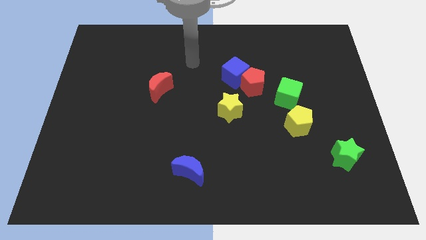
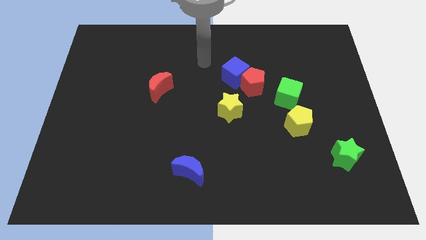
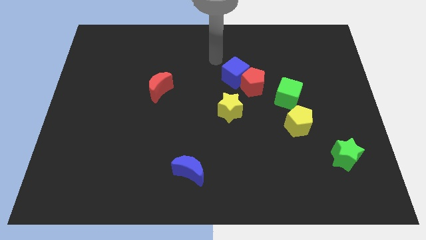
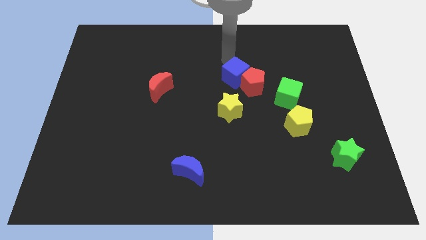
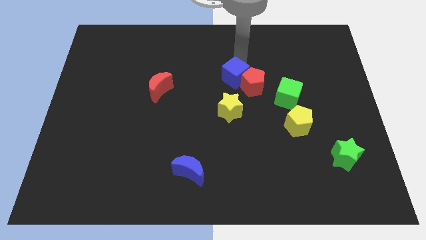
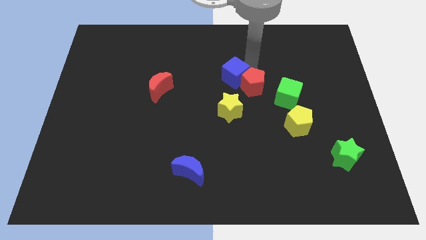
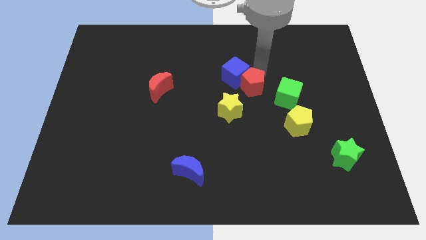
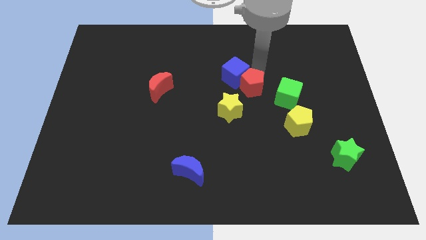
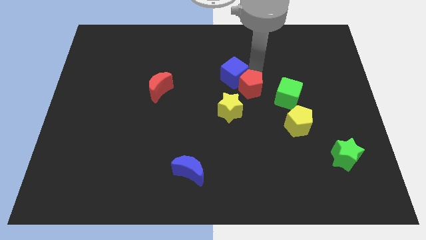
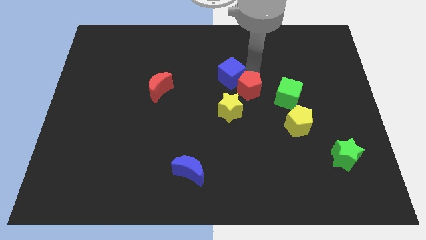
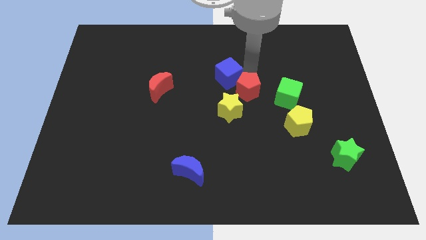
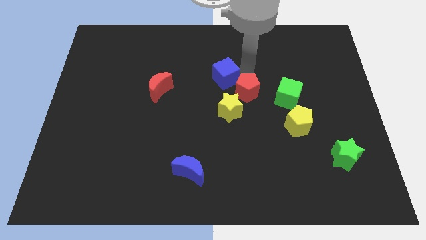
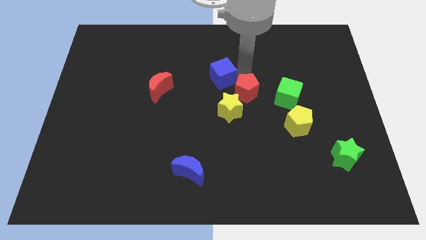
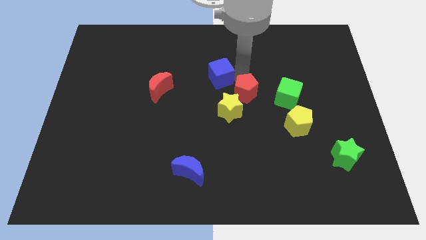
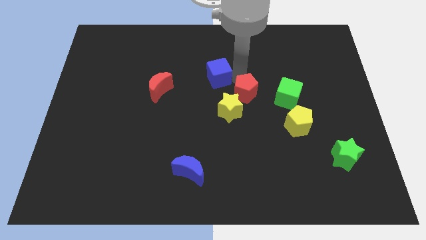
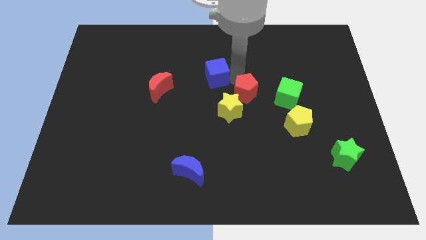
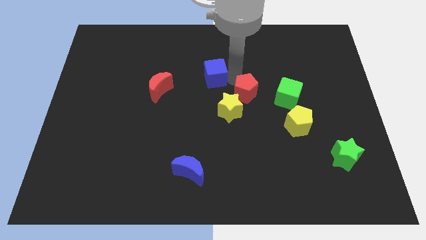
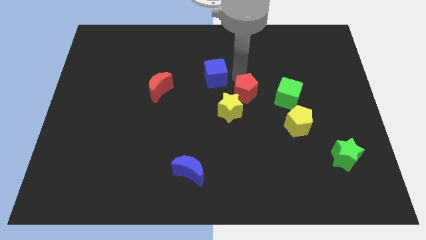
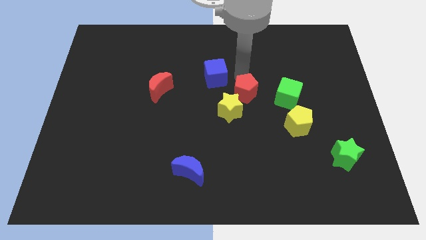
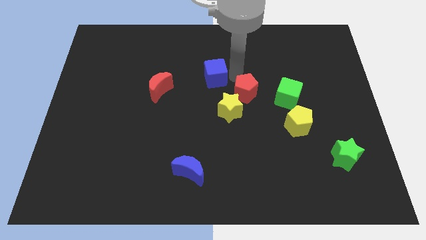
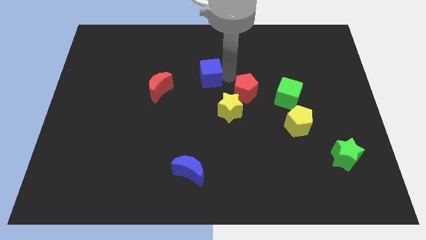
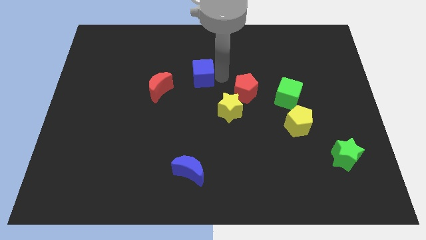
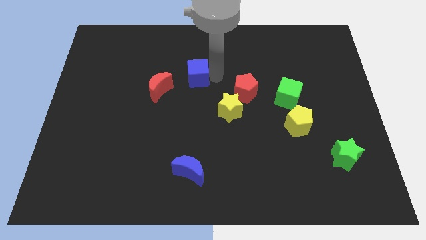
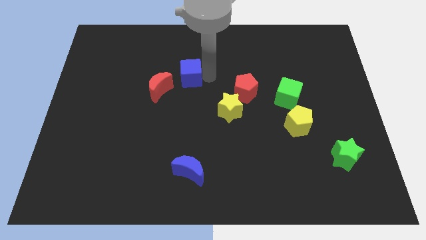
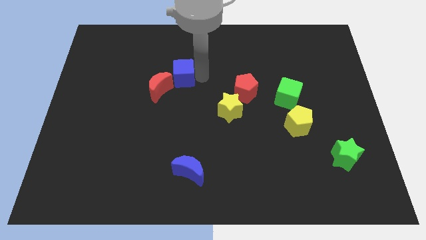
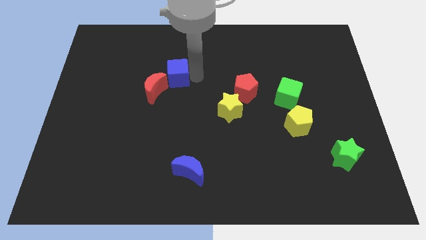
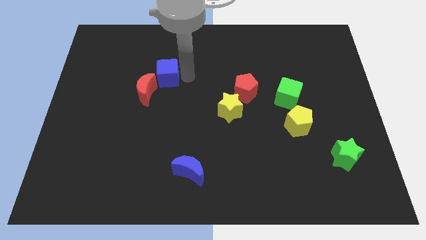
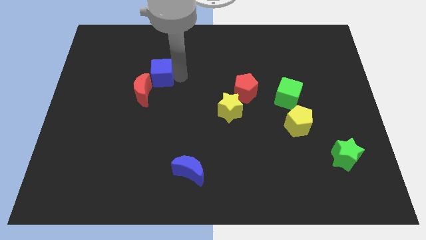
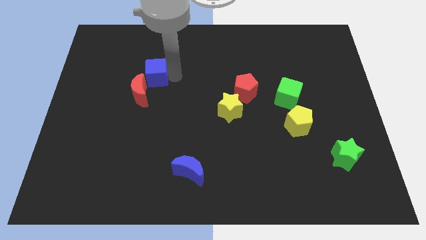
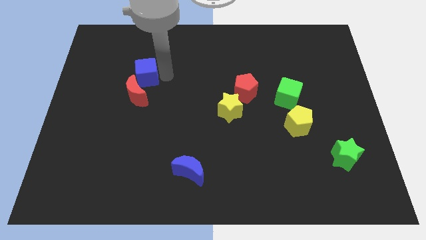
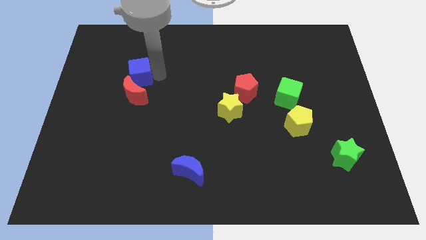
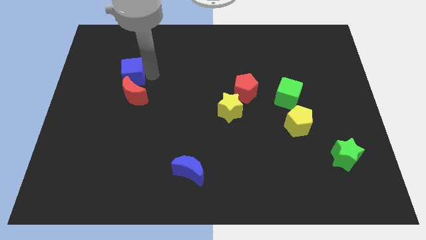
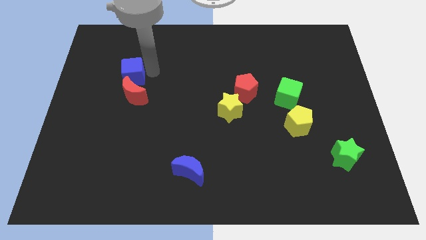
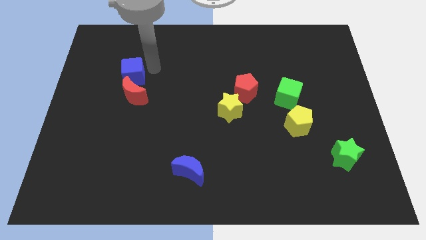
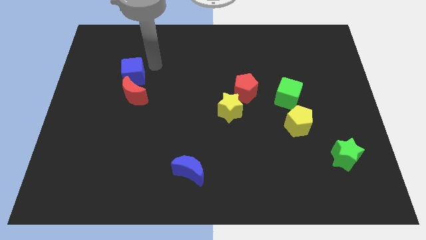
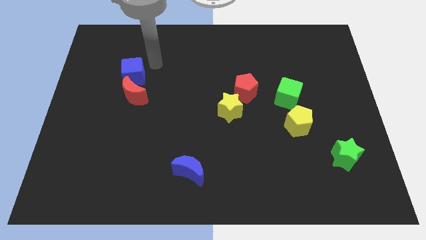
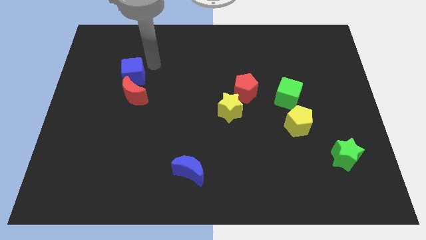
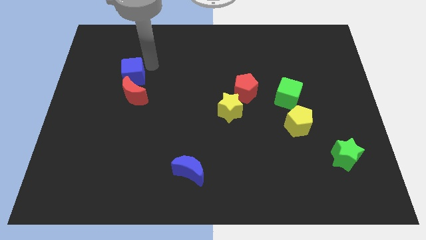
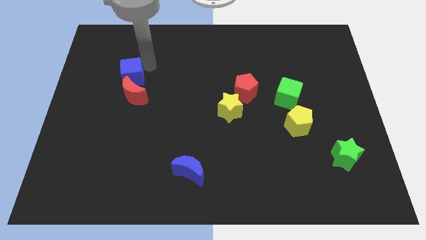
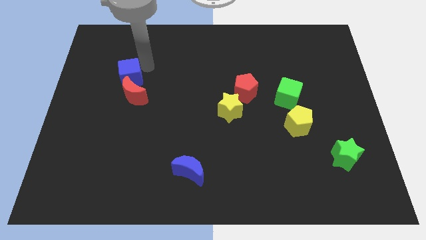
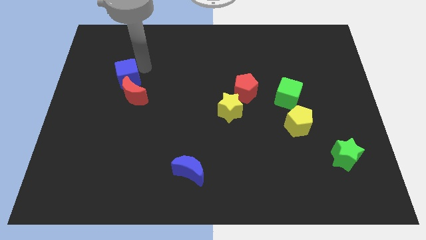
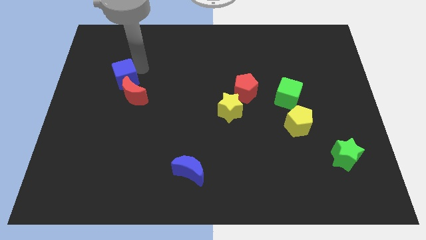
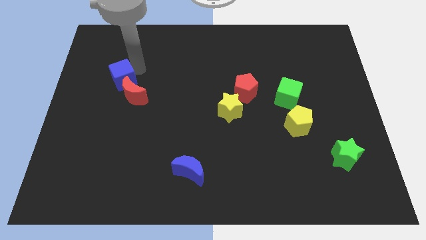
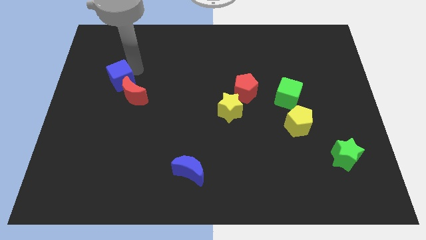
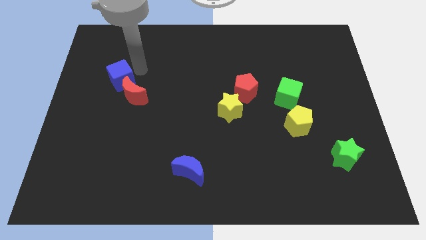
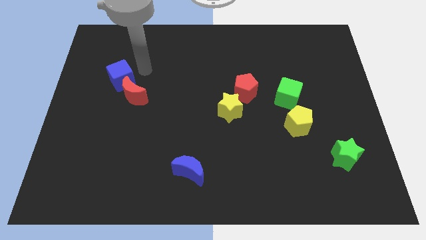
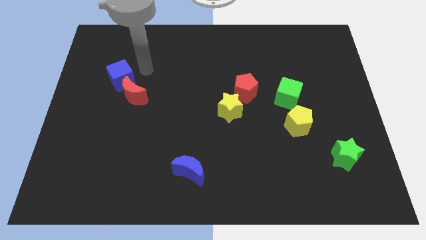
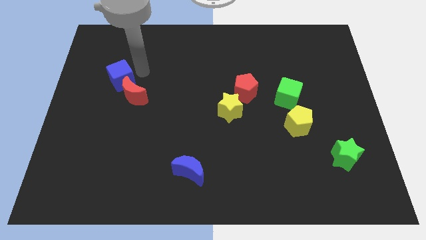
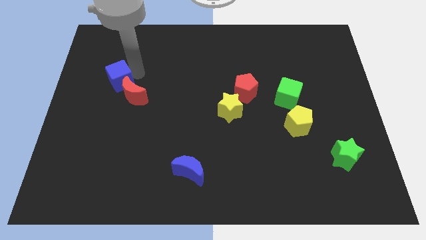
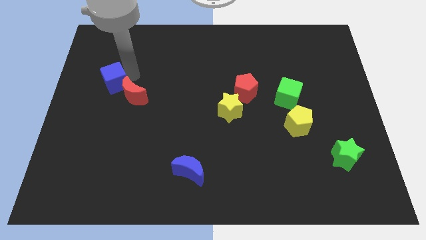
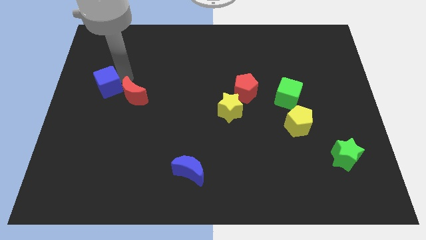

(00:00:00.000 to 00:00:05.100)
slide the blue cube to the left side

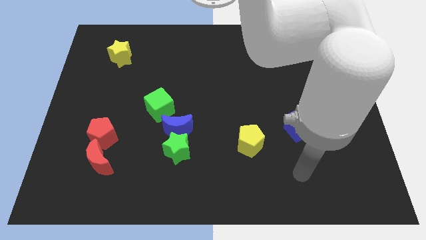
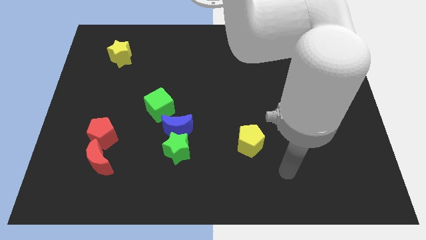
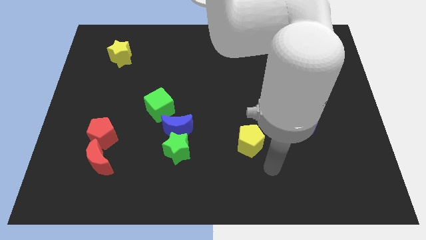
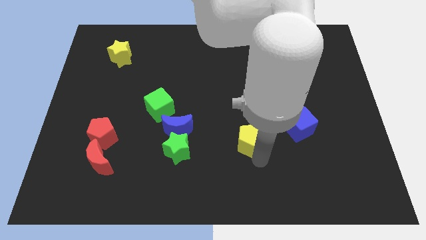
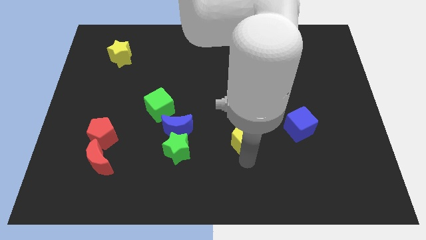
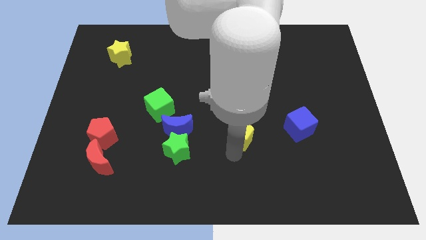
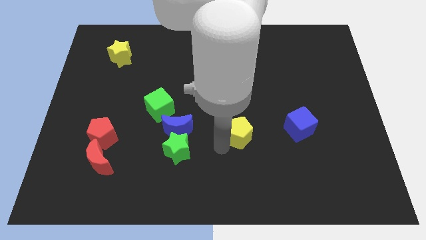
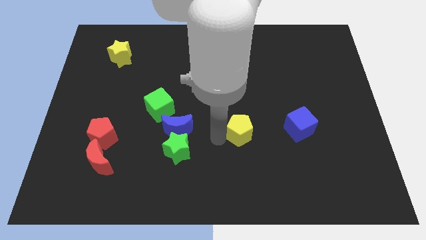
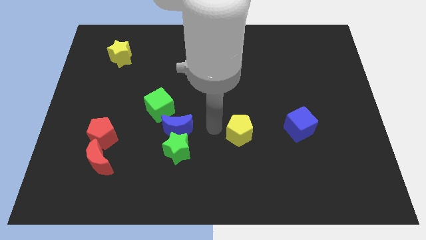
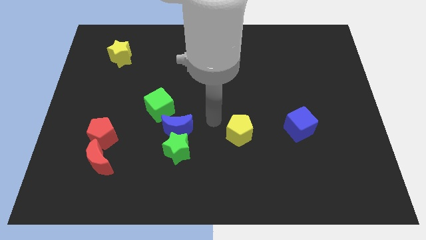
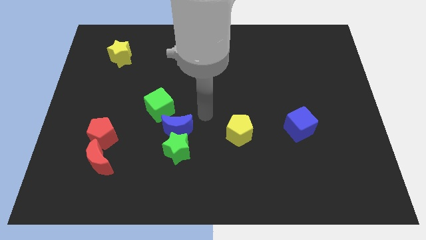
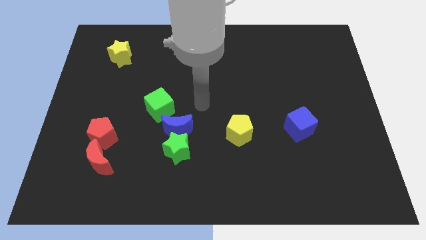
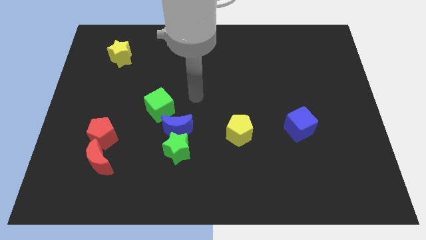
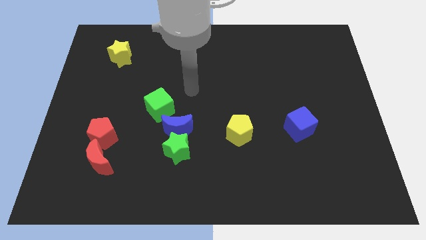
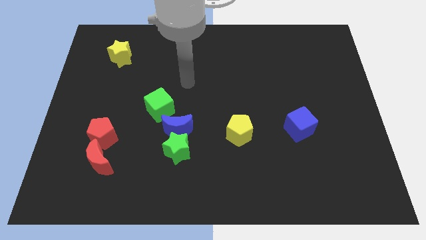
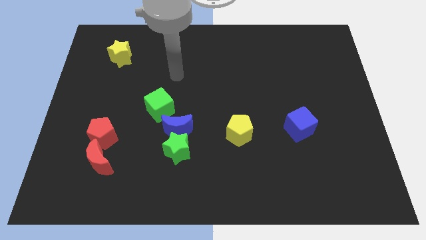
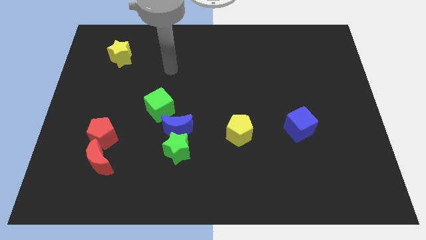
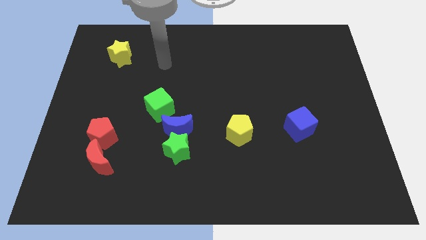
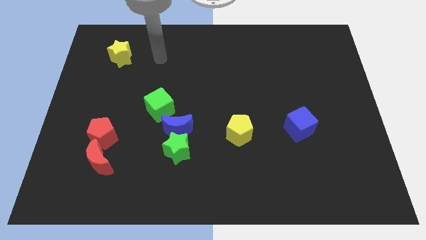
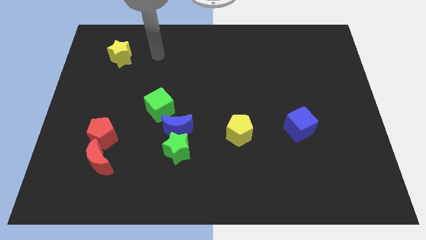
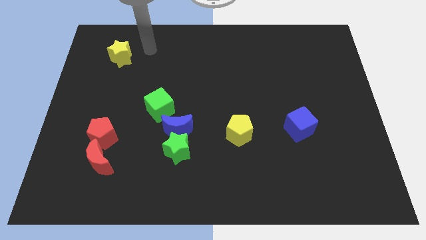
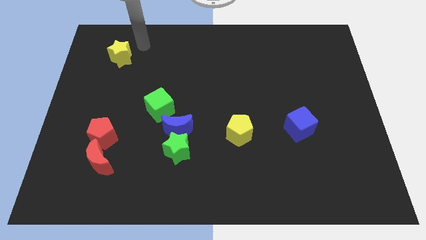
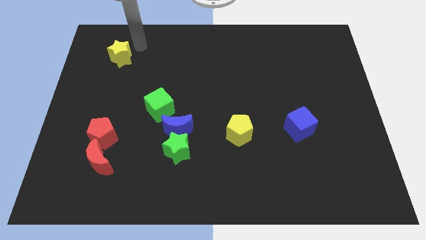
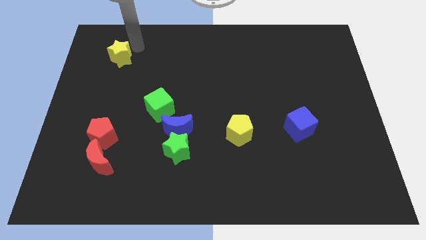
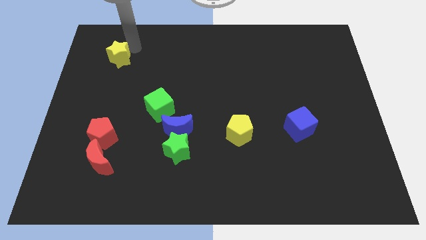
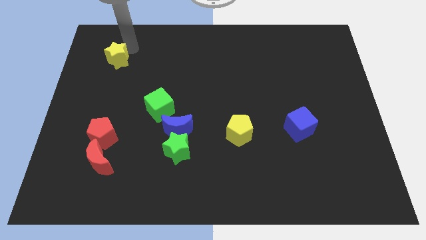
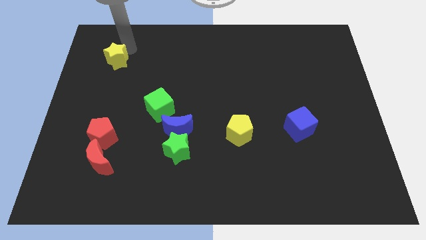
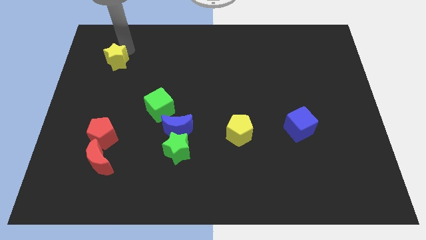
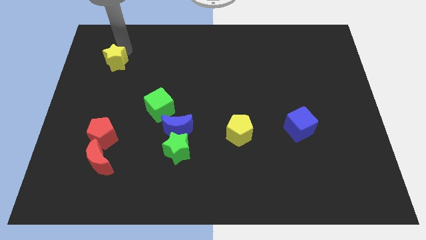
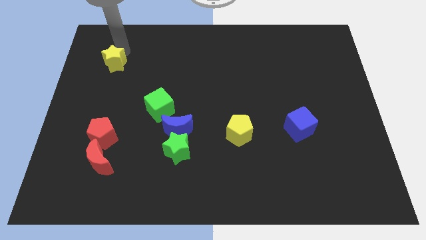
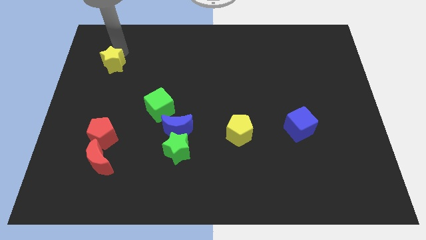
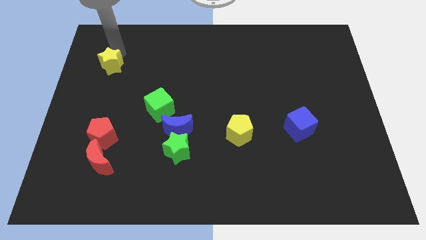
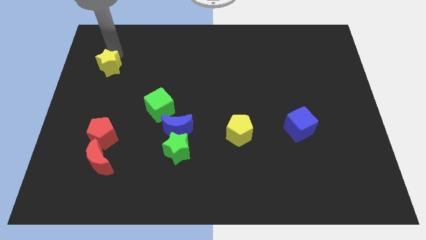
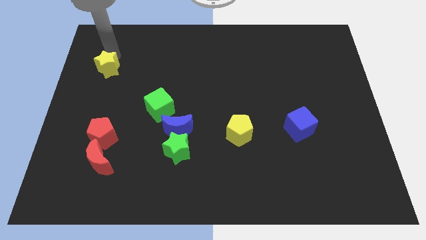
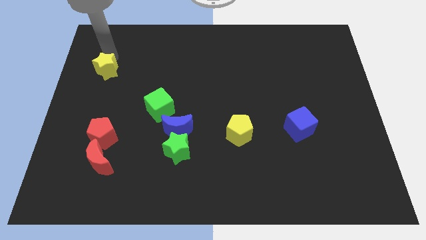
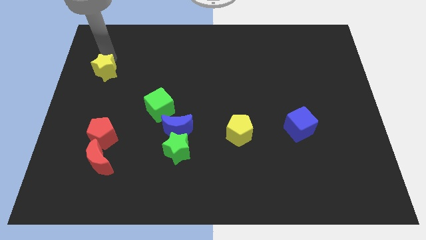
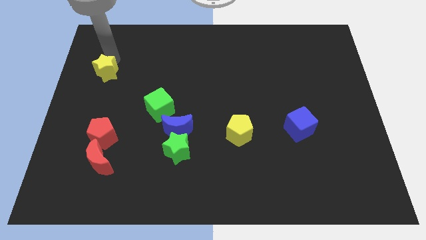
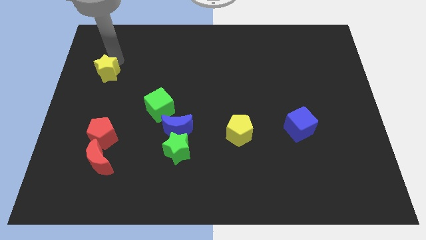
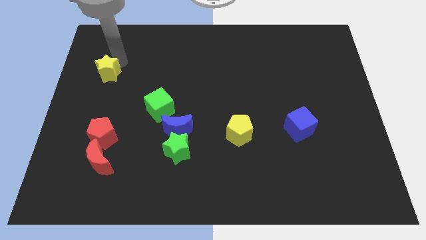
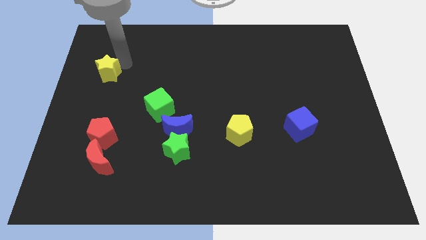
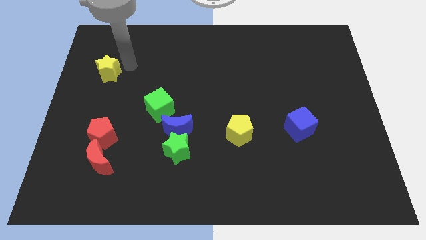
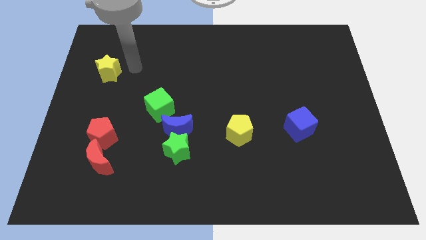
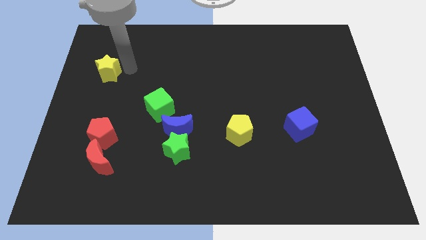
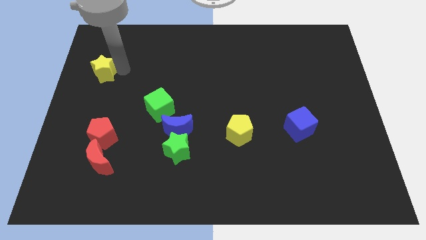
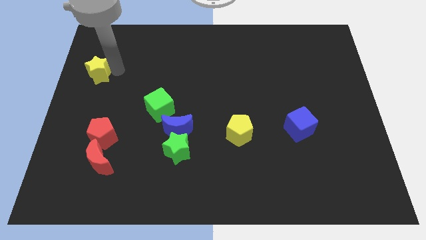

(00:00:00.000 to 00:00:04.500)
slide the yellow star to the left side
